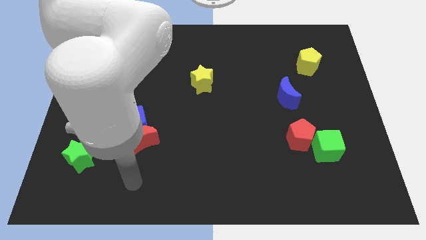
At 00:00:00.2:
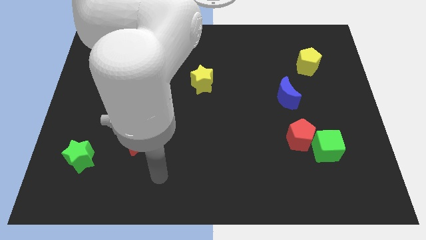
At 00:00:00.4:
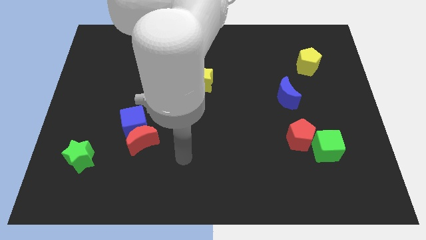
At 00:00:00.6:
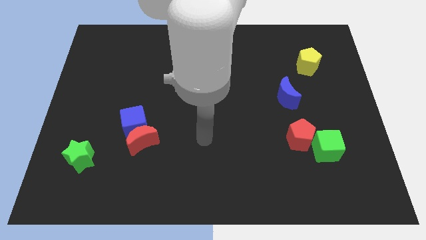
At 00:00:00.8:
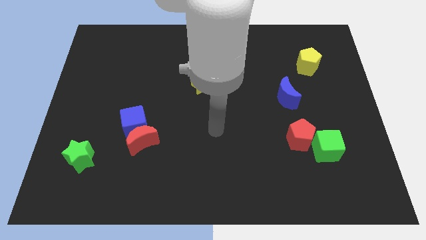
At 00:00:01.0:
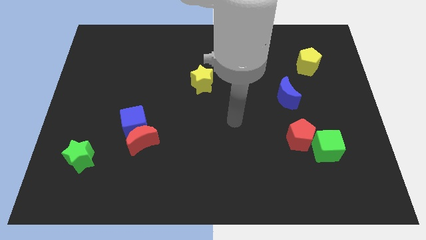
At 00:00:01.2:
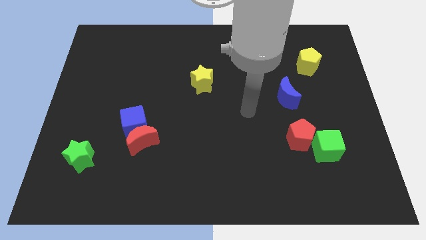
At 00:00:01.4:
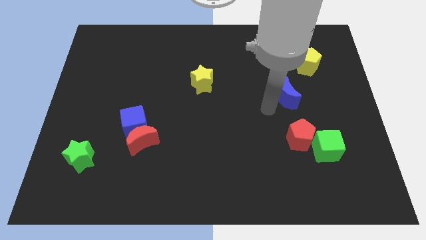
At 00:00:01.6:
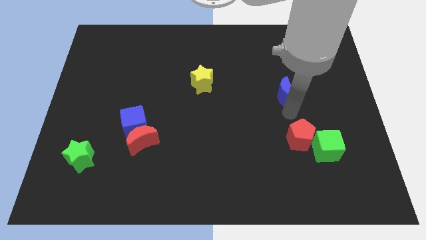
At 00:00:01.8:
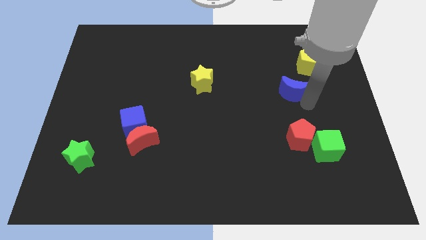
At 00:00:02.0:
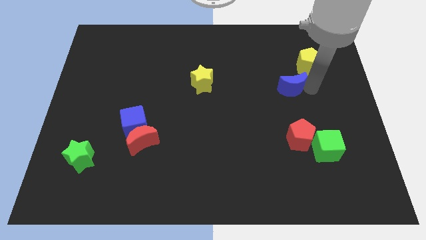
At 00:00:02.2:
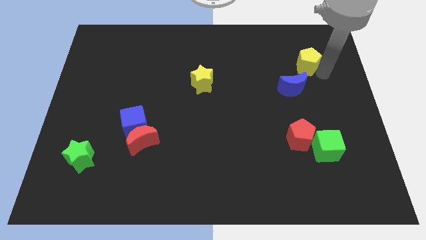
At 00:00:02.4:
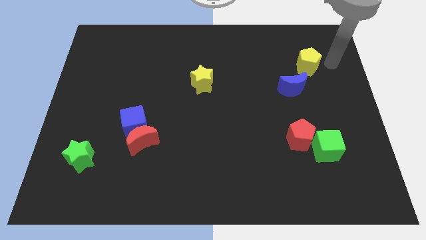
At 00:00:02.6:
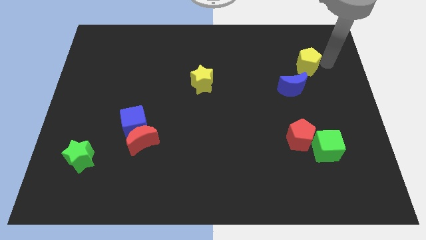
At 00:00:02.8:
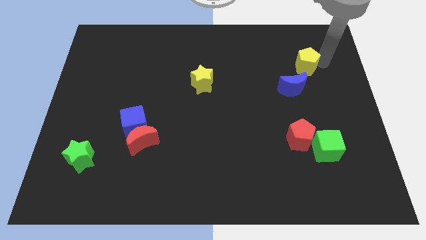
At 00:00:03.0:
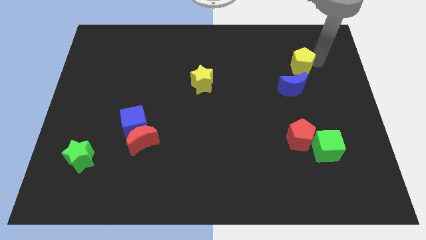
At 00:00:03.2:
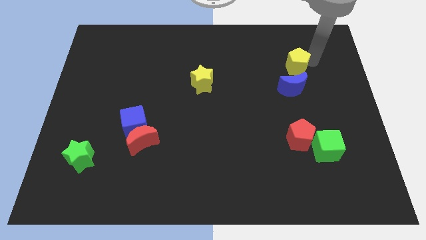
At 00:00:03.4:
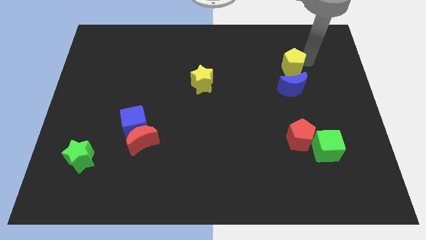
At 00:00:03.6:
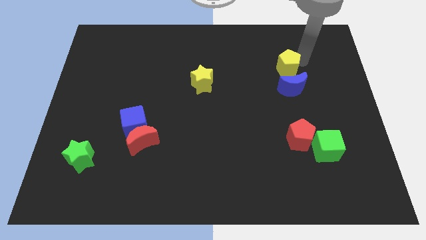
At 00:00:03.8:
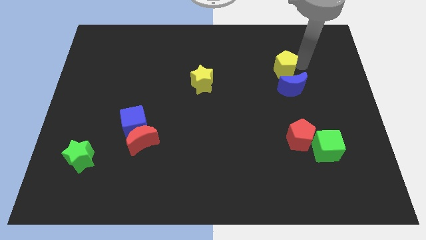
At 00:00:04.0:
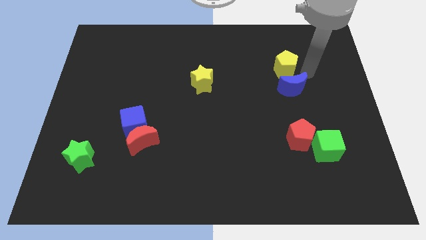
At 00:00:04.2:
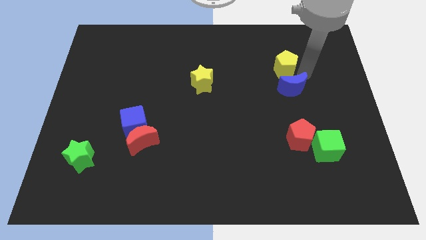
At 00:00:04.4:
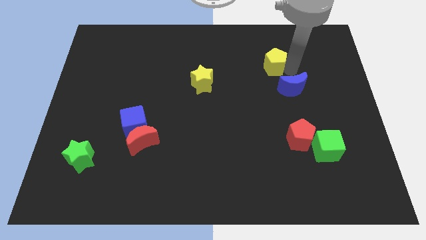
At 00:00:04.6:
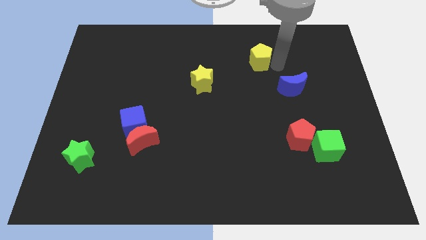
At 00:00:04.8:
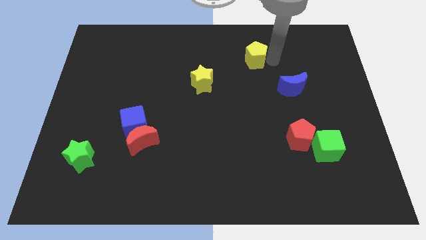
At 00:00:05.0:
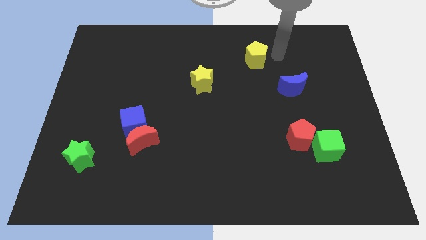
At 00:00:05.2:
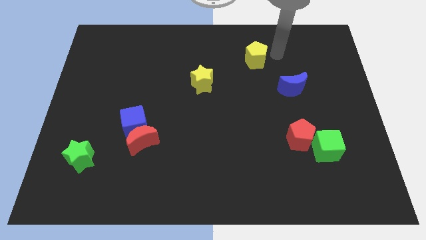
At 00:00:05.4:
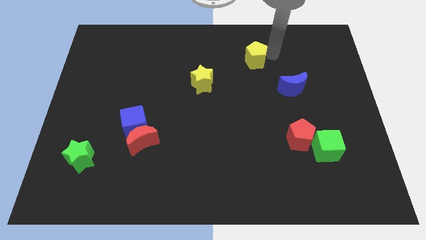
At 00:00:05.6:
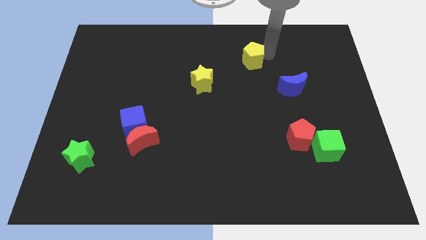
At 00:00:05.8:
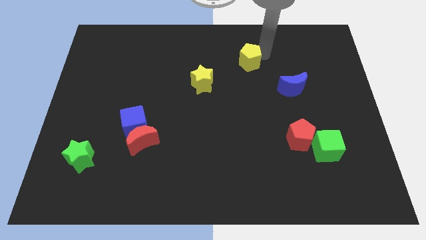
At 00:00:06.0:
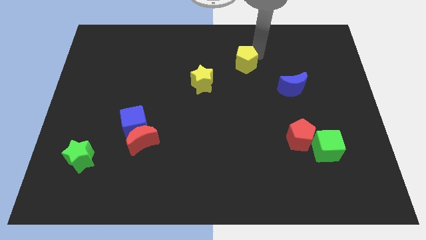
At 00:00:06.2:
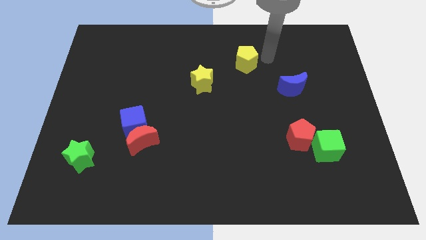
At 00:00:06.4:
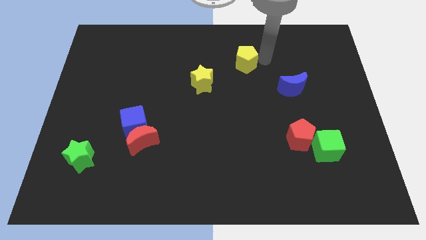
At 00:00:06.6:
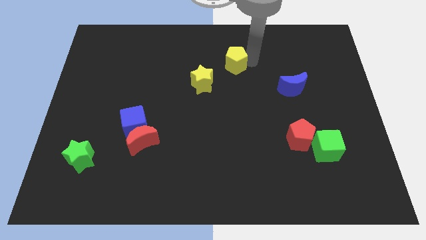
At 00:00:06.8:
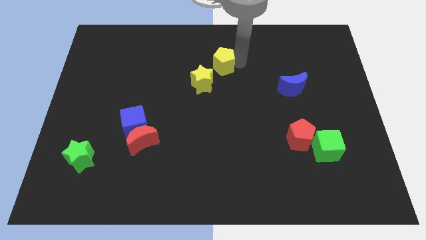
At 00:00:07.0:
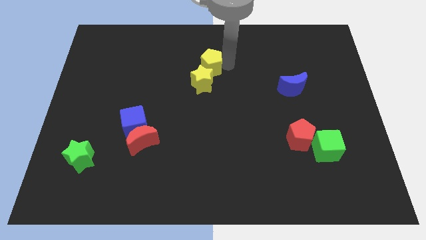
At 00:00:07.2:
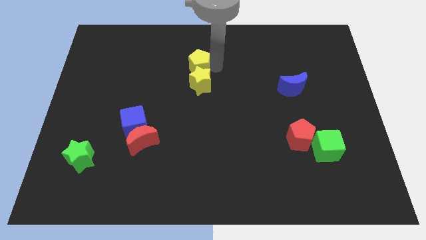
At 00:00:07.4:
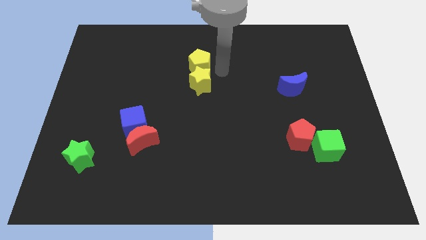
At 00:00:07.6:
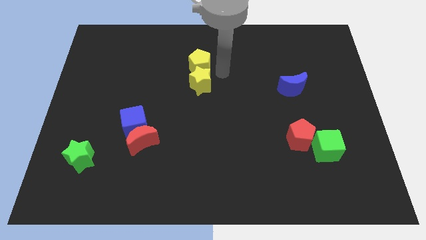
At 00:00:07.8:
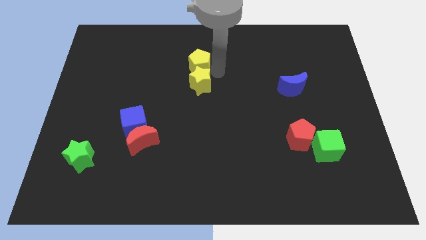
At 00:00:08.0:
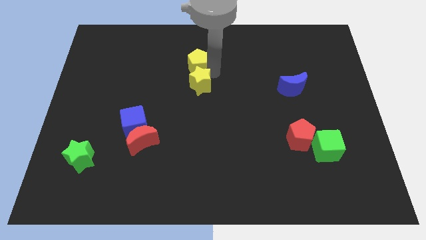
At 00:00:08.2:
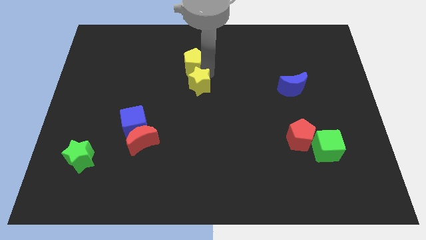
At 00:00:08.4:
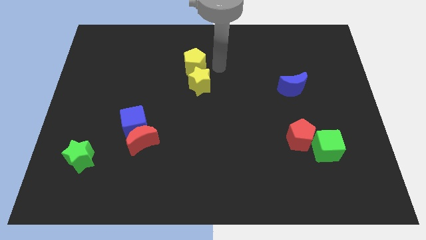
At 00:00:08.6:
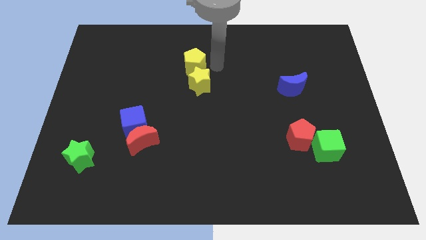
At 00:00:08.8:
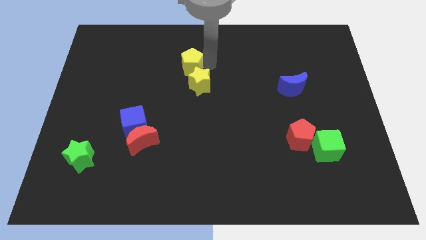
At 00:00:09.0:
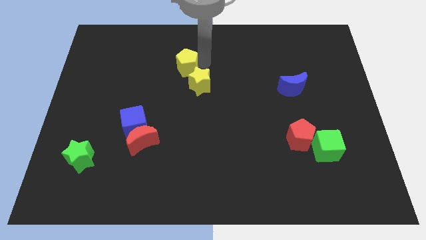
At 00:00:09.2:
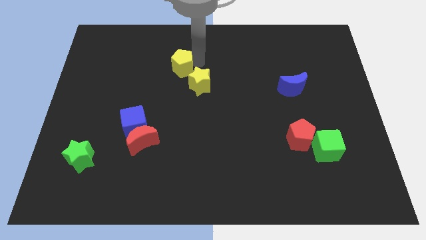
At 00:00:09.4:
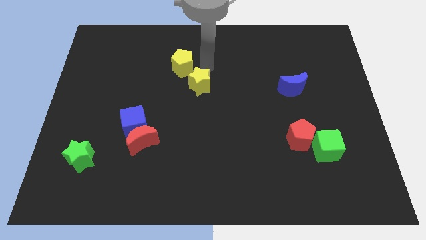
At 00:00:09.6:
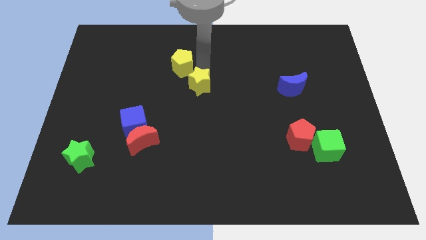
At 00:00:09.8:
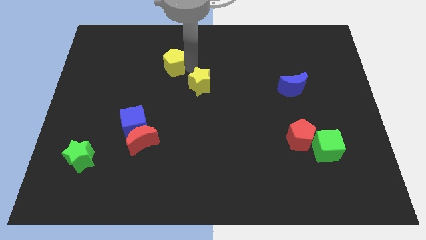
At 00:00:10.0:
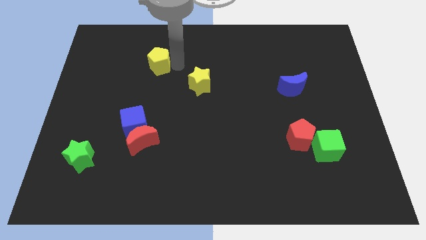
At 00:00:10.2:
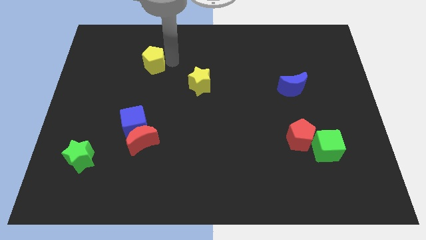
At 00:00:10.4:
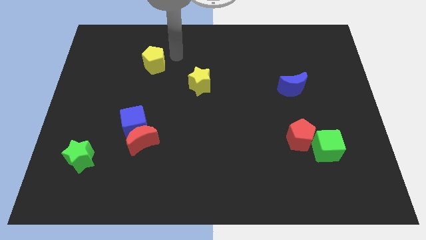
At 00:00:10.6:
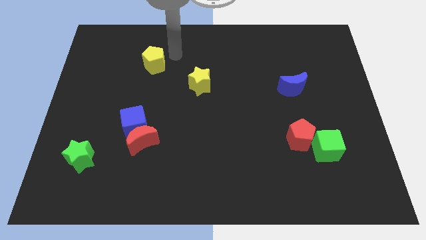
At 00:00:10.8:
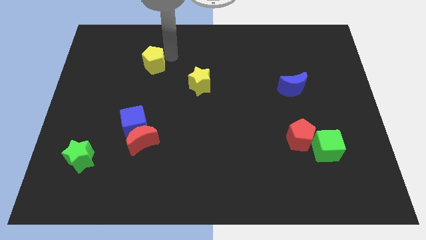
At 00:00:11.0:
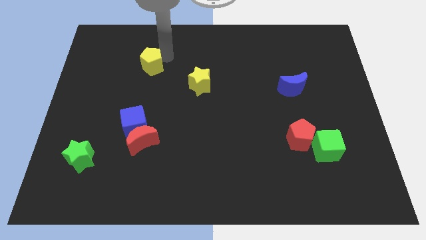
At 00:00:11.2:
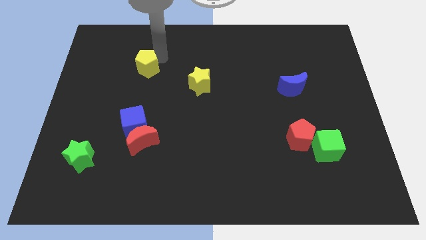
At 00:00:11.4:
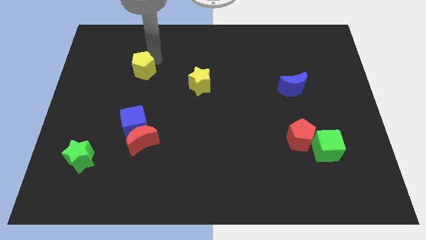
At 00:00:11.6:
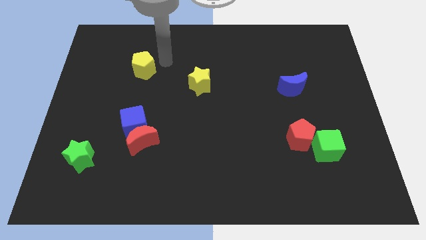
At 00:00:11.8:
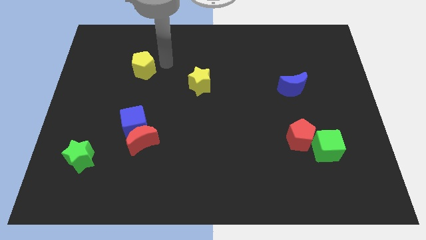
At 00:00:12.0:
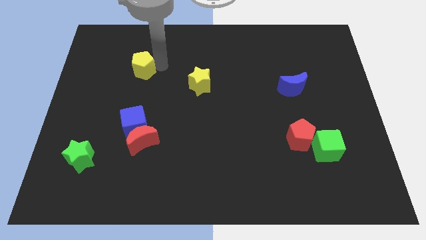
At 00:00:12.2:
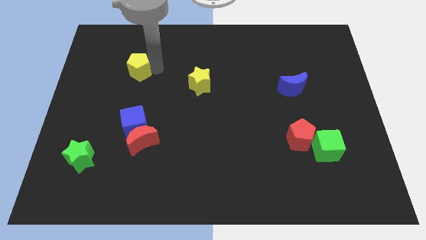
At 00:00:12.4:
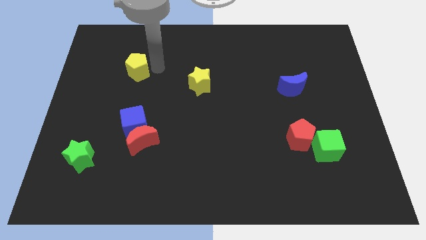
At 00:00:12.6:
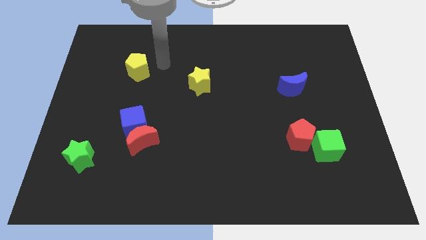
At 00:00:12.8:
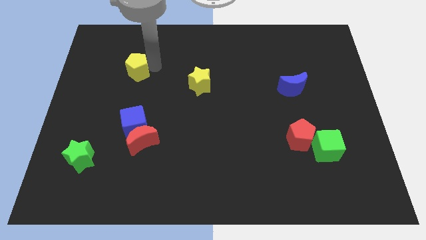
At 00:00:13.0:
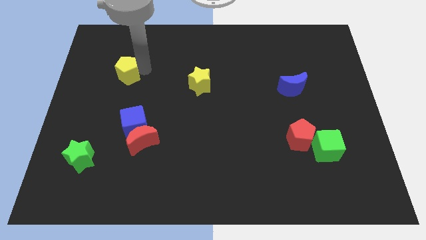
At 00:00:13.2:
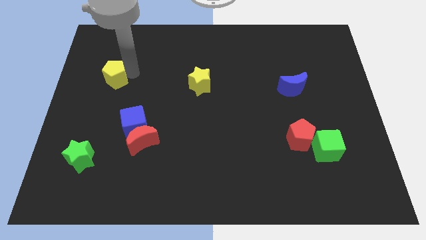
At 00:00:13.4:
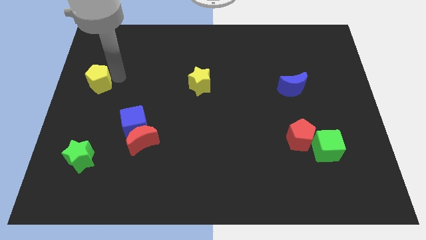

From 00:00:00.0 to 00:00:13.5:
push the yellow pentagon to the left side
